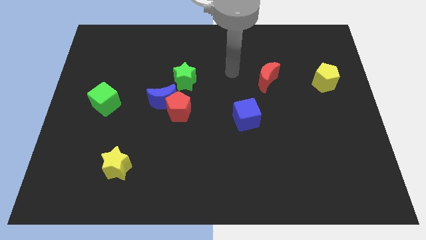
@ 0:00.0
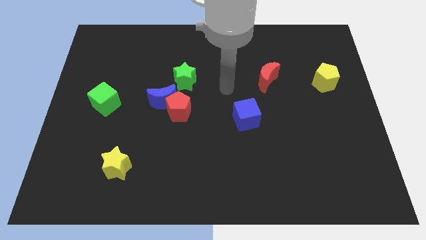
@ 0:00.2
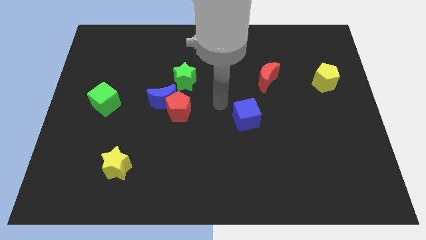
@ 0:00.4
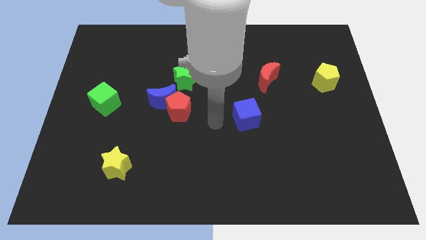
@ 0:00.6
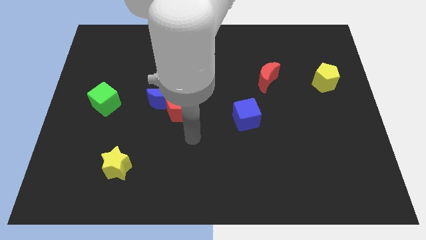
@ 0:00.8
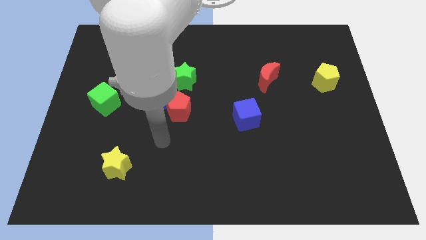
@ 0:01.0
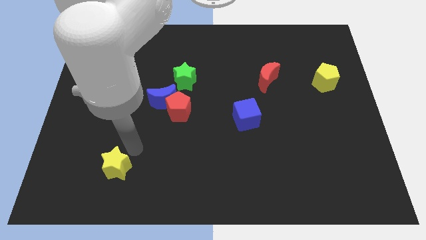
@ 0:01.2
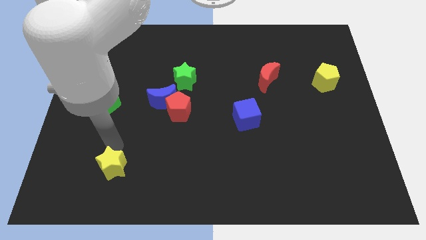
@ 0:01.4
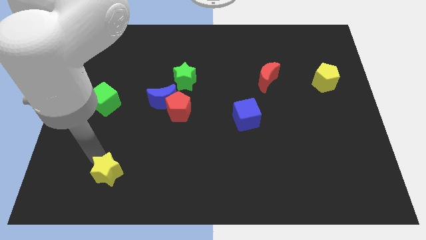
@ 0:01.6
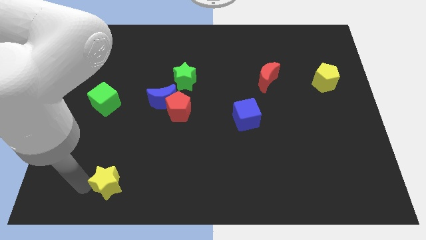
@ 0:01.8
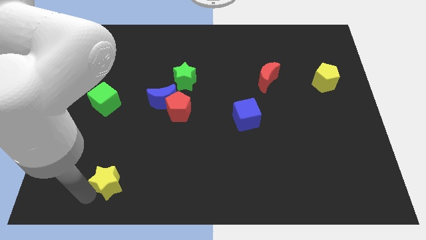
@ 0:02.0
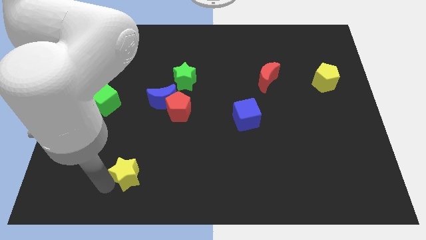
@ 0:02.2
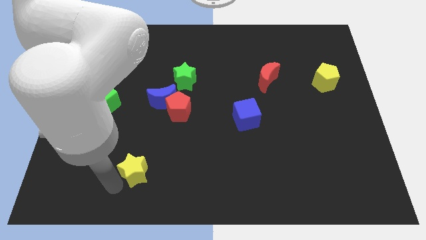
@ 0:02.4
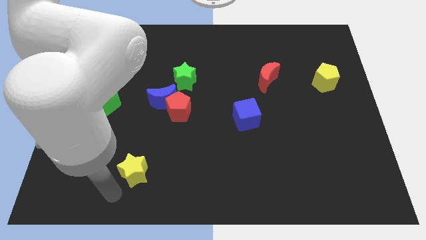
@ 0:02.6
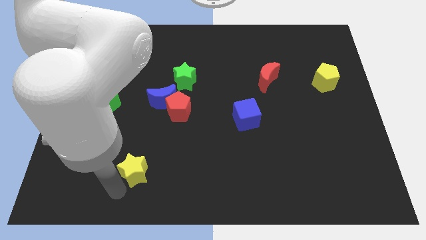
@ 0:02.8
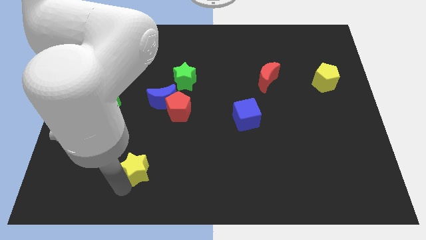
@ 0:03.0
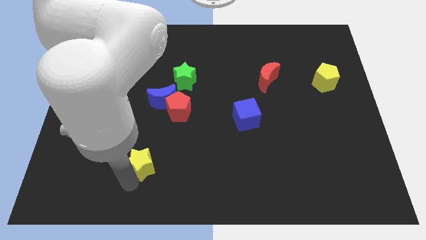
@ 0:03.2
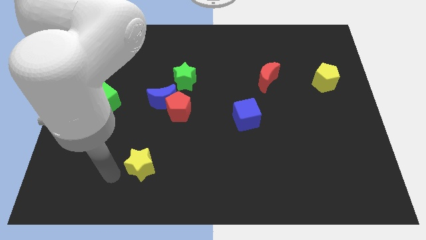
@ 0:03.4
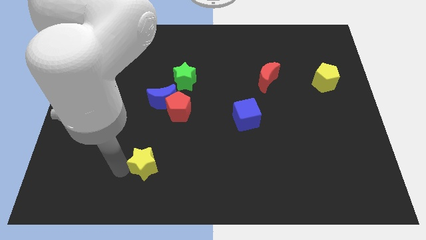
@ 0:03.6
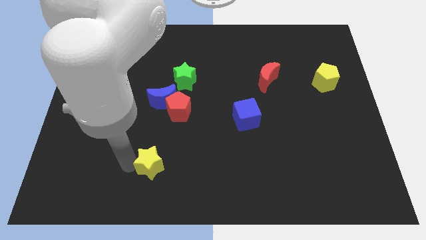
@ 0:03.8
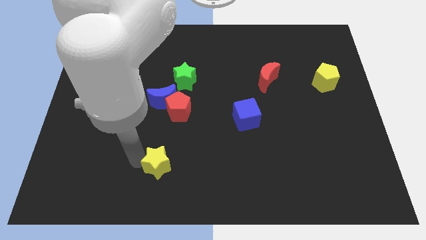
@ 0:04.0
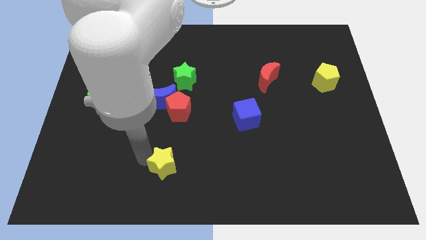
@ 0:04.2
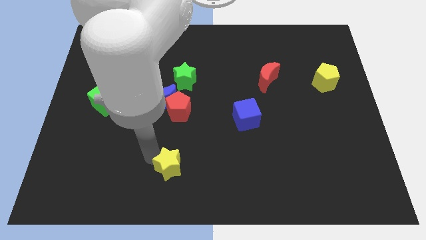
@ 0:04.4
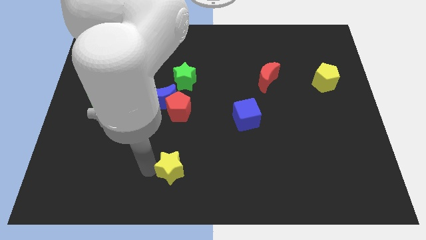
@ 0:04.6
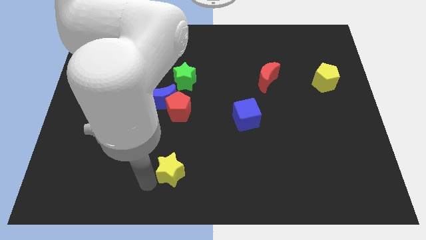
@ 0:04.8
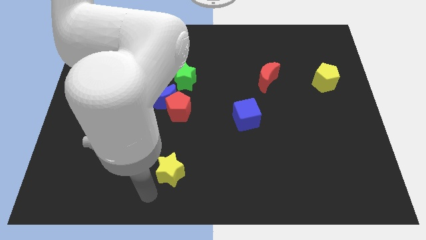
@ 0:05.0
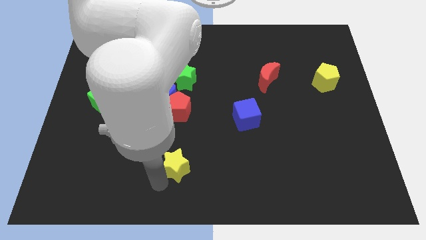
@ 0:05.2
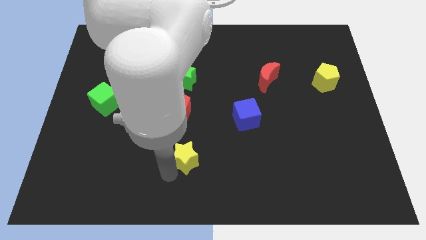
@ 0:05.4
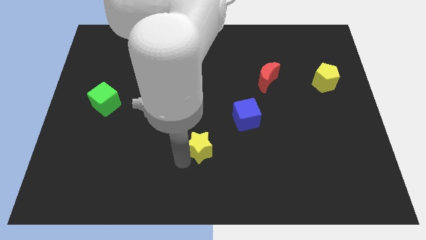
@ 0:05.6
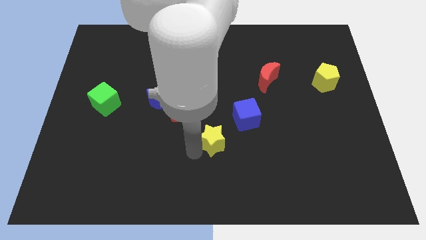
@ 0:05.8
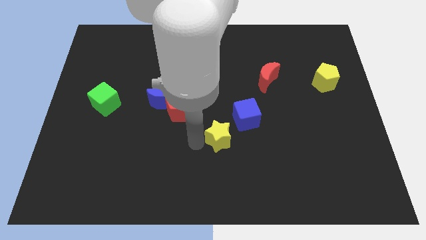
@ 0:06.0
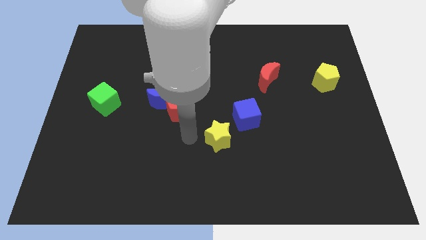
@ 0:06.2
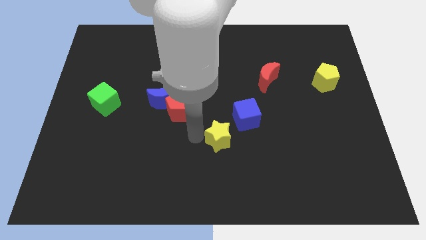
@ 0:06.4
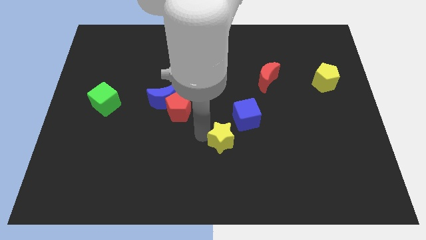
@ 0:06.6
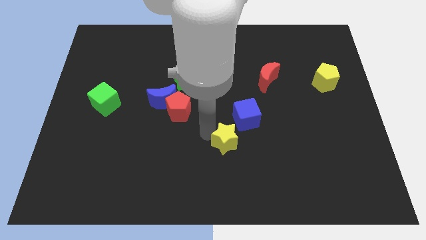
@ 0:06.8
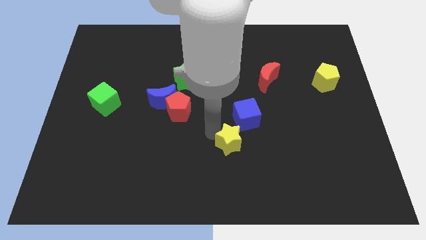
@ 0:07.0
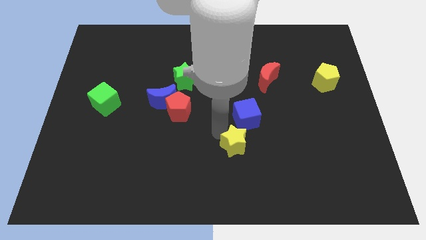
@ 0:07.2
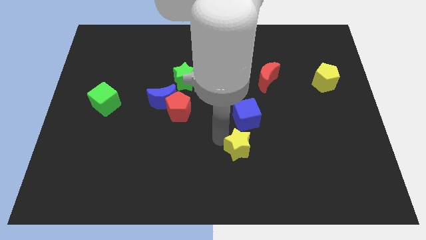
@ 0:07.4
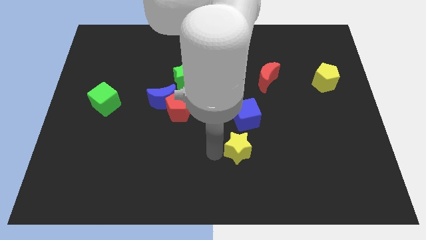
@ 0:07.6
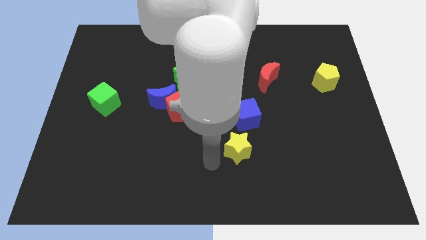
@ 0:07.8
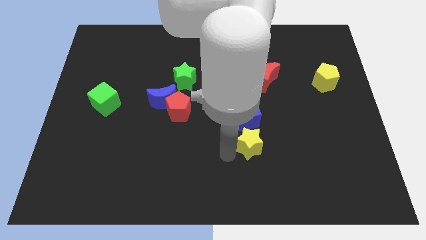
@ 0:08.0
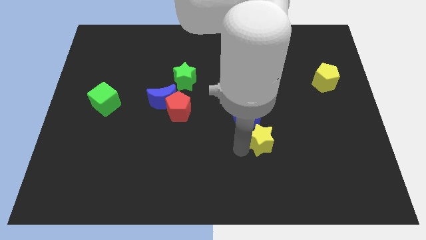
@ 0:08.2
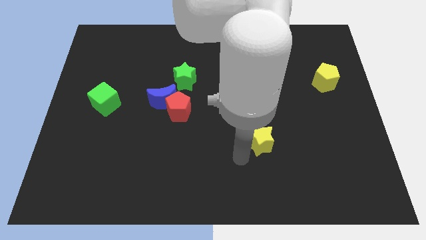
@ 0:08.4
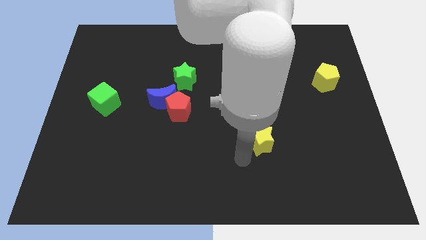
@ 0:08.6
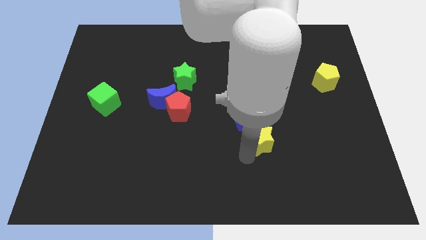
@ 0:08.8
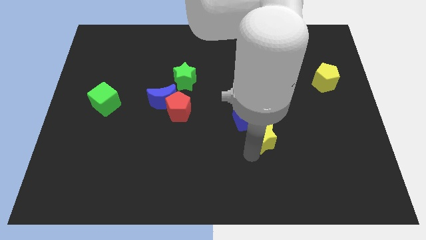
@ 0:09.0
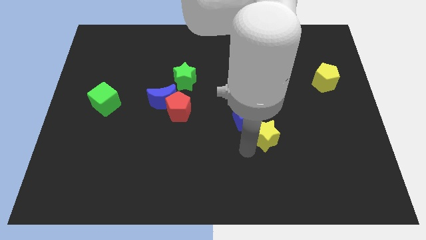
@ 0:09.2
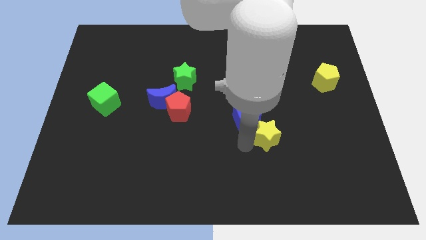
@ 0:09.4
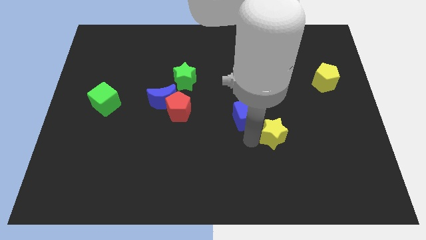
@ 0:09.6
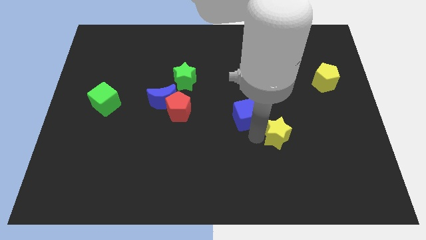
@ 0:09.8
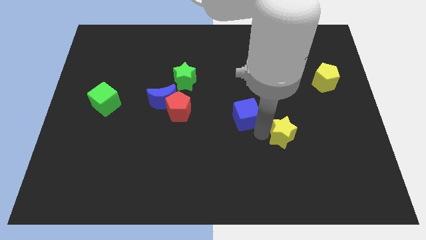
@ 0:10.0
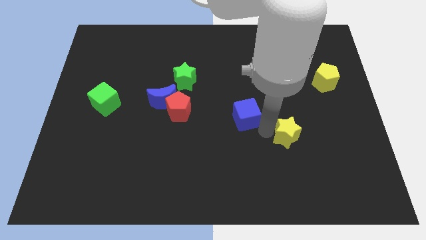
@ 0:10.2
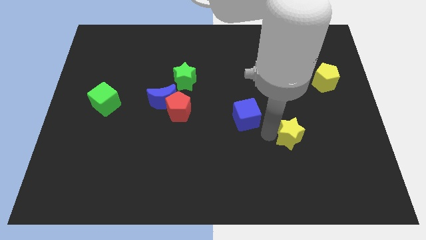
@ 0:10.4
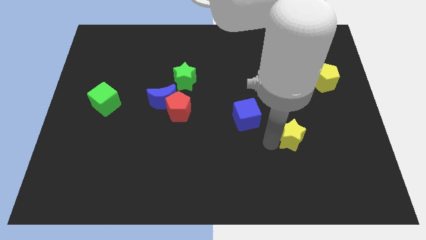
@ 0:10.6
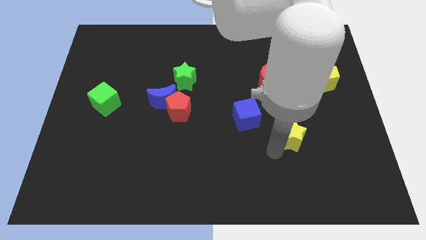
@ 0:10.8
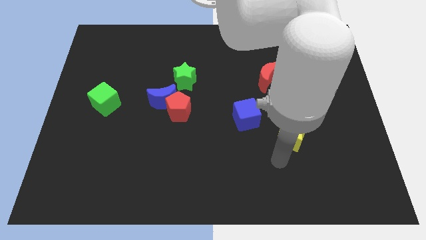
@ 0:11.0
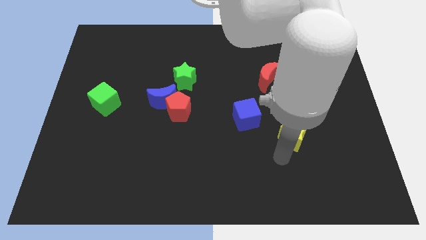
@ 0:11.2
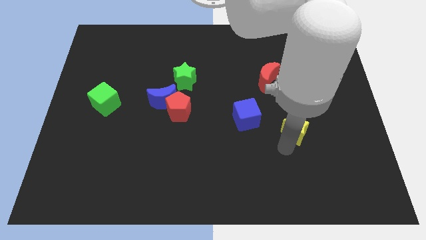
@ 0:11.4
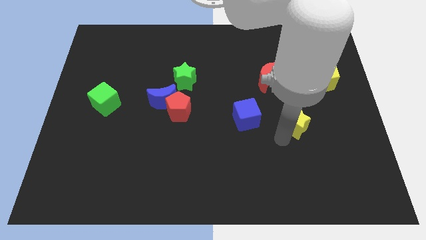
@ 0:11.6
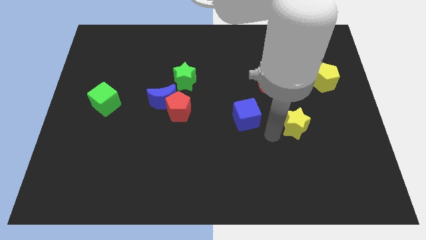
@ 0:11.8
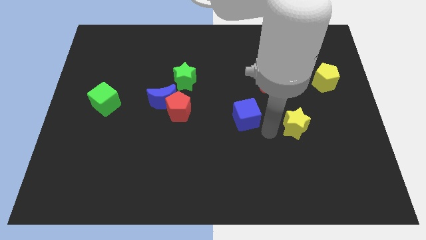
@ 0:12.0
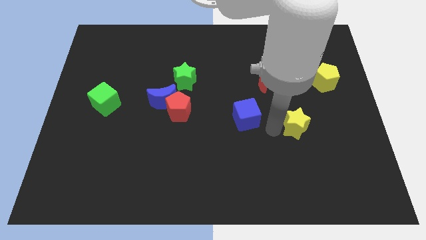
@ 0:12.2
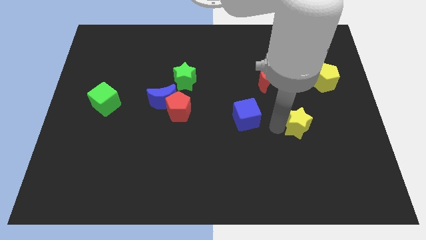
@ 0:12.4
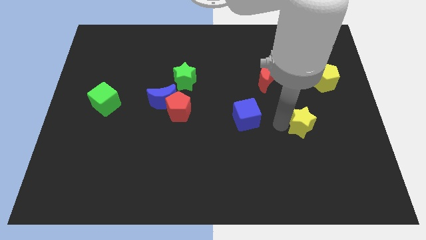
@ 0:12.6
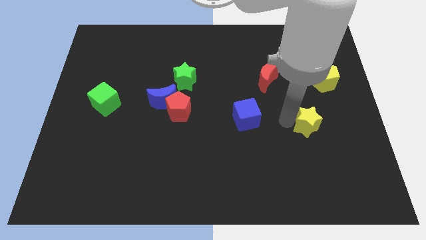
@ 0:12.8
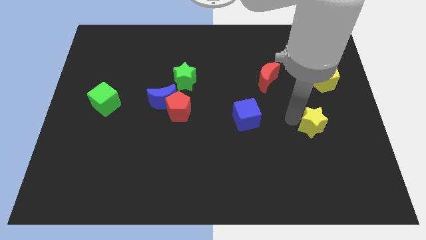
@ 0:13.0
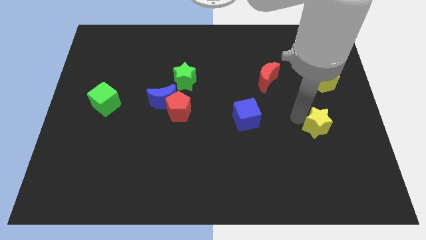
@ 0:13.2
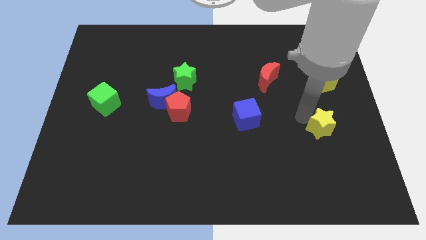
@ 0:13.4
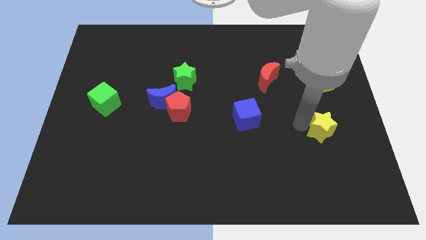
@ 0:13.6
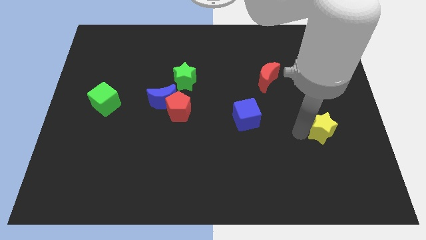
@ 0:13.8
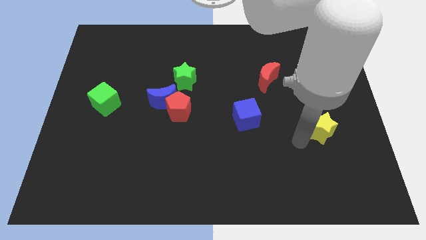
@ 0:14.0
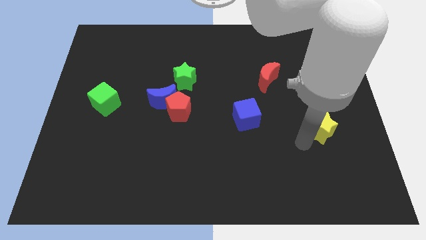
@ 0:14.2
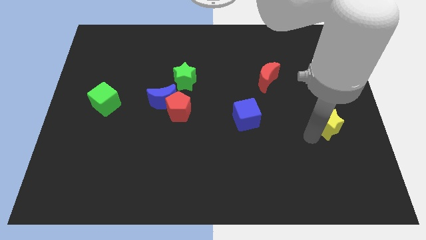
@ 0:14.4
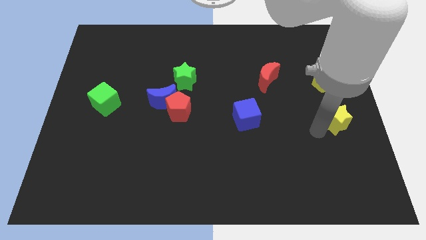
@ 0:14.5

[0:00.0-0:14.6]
put the yellow star to the center right
